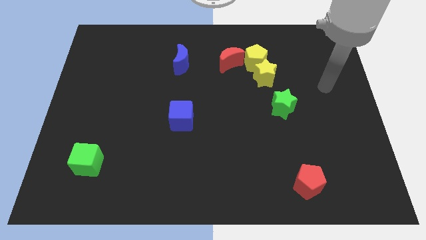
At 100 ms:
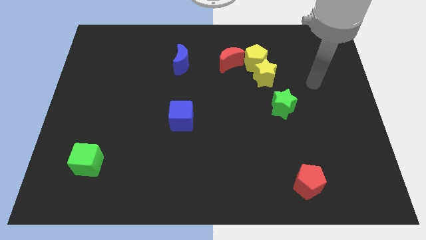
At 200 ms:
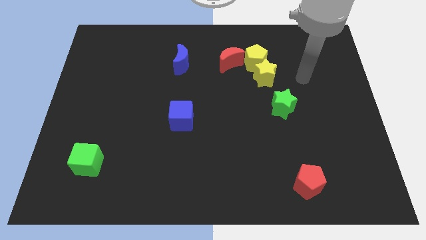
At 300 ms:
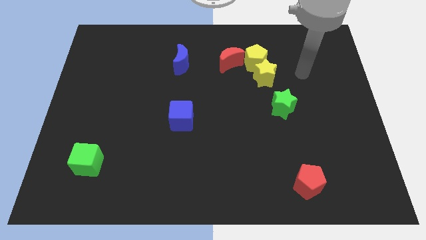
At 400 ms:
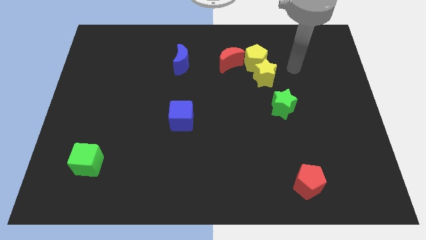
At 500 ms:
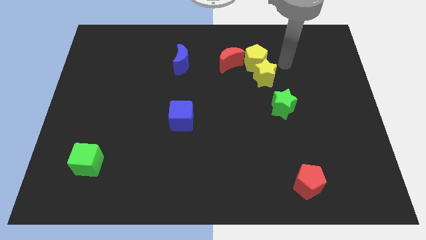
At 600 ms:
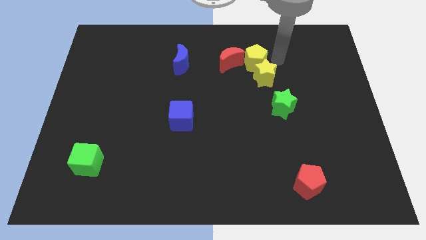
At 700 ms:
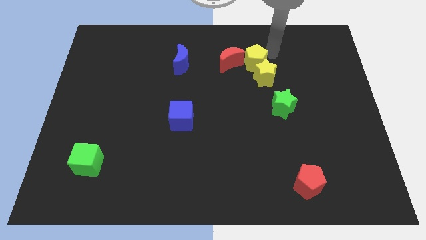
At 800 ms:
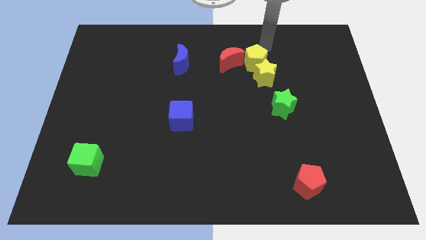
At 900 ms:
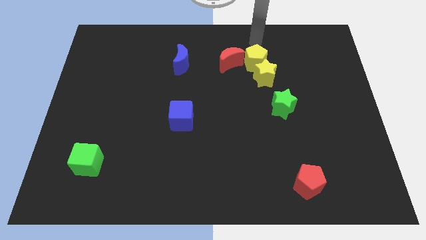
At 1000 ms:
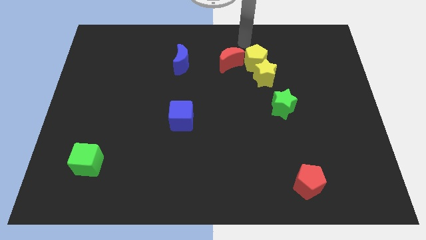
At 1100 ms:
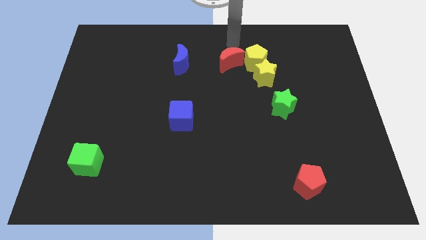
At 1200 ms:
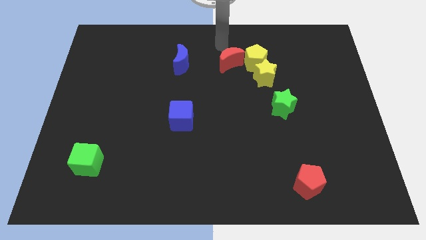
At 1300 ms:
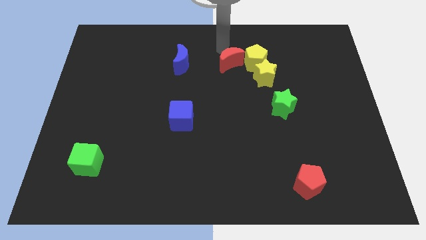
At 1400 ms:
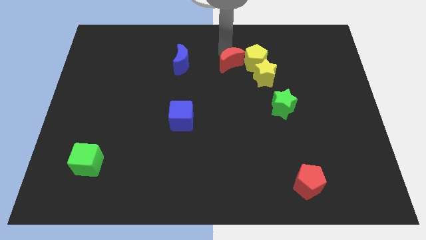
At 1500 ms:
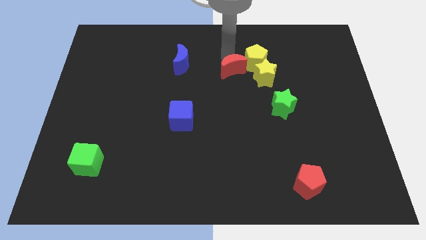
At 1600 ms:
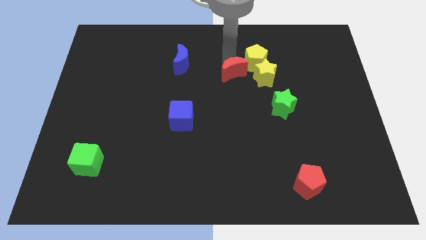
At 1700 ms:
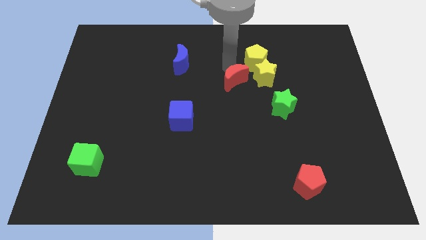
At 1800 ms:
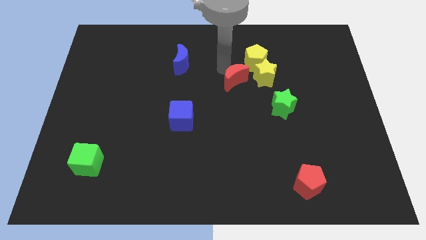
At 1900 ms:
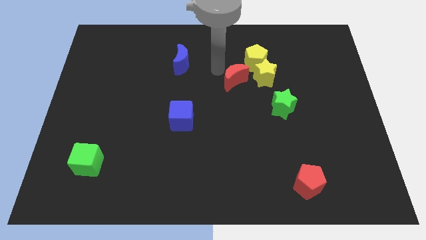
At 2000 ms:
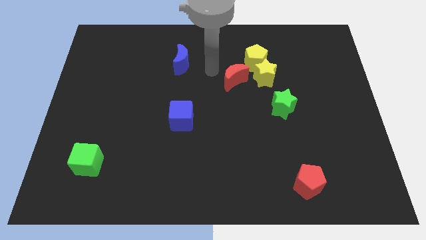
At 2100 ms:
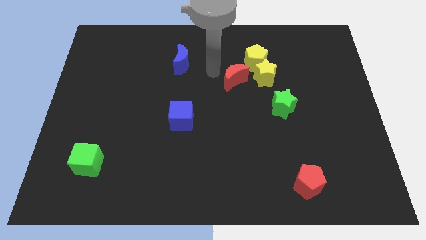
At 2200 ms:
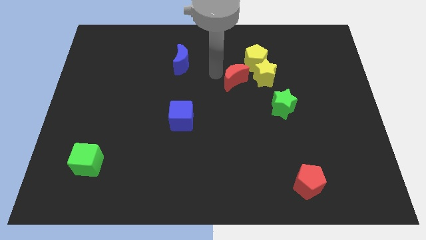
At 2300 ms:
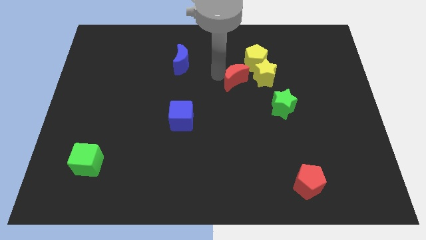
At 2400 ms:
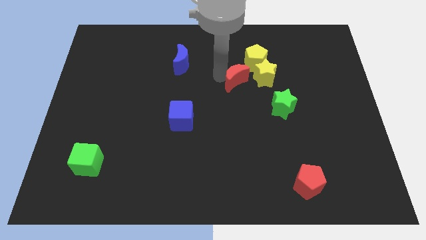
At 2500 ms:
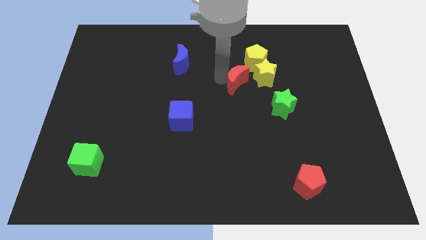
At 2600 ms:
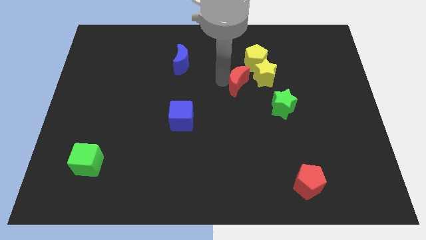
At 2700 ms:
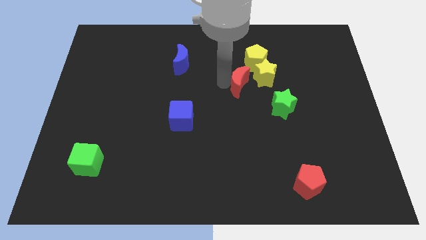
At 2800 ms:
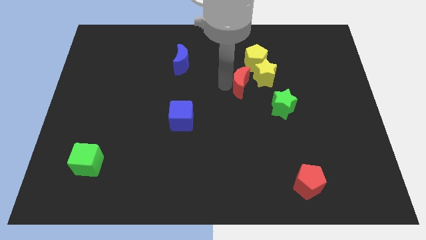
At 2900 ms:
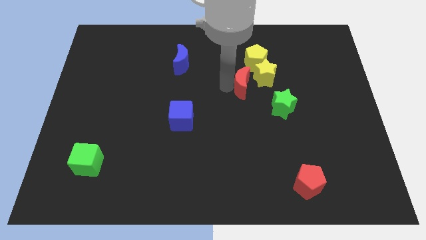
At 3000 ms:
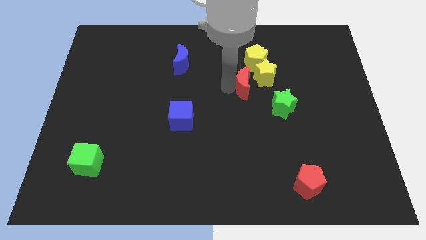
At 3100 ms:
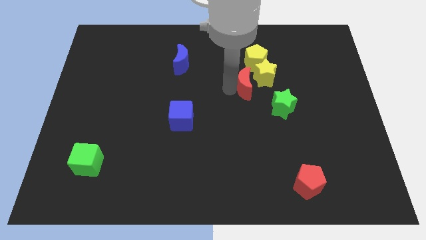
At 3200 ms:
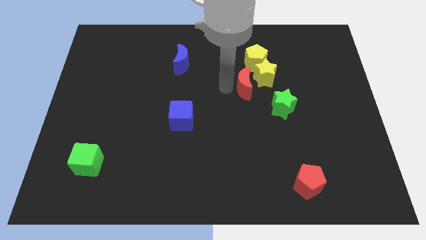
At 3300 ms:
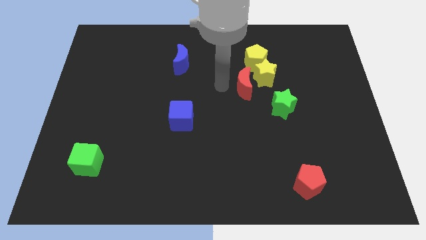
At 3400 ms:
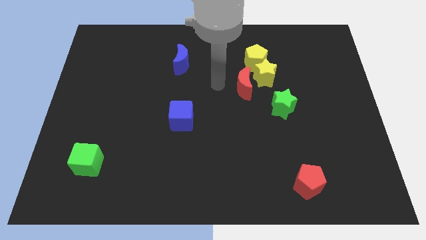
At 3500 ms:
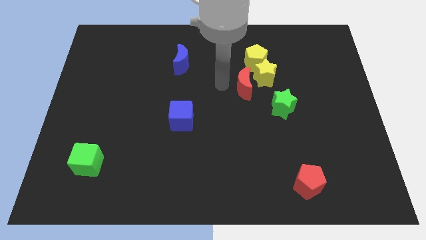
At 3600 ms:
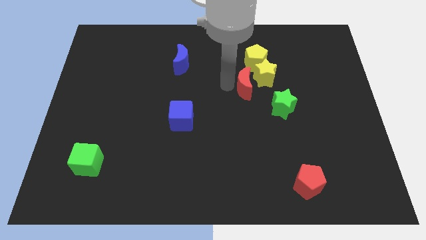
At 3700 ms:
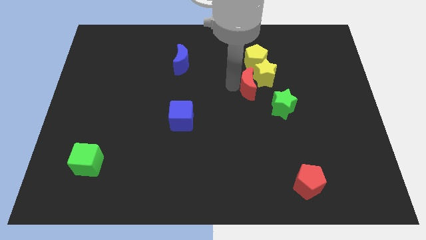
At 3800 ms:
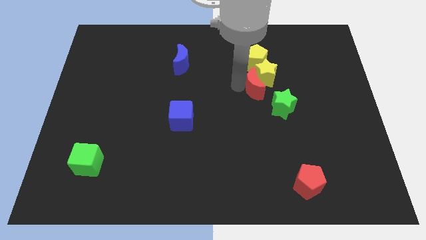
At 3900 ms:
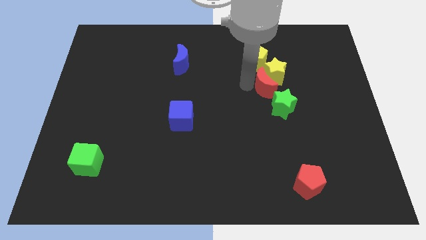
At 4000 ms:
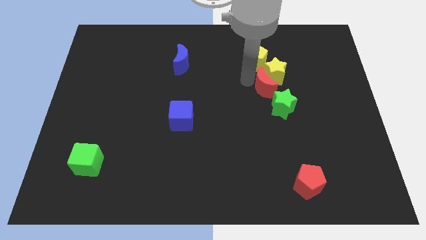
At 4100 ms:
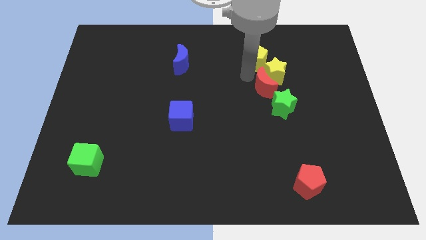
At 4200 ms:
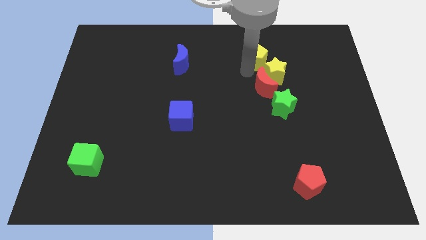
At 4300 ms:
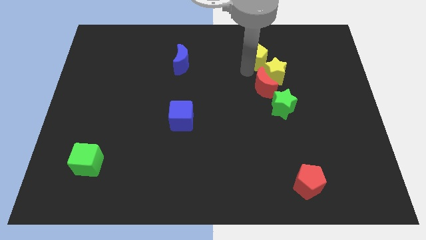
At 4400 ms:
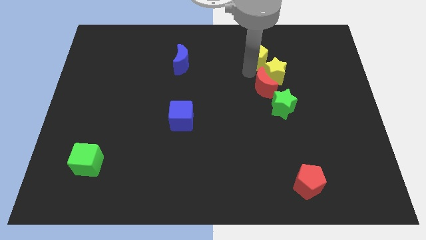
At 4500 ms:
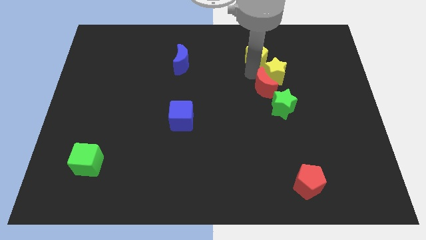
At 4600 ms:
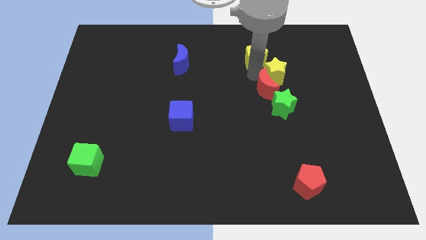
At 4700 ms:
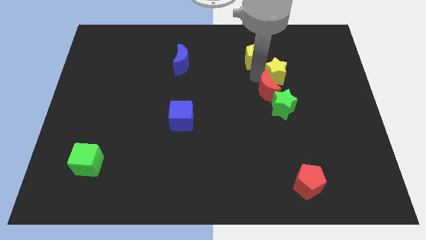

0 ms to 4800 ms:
slide the red moon to the green star

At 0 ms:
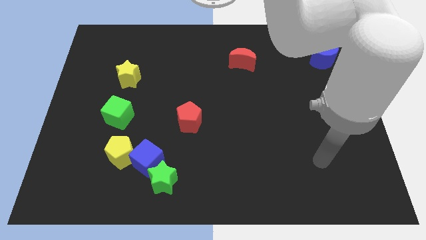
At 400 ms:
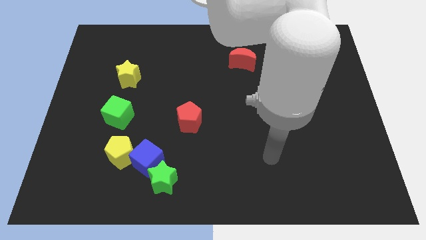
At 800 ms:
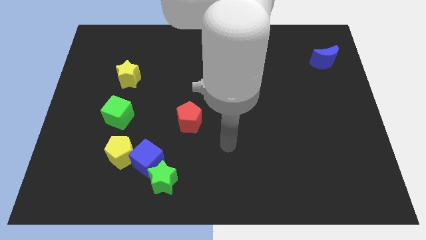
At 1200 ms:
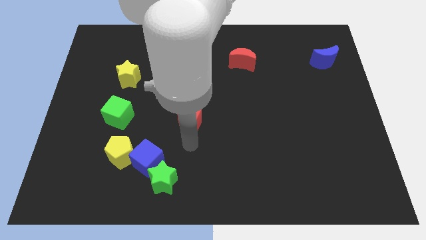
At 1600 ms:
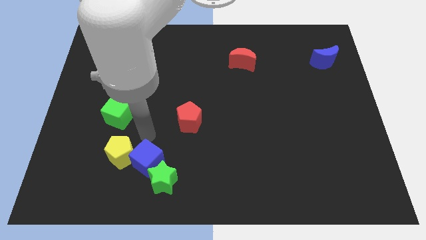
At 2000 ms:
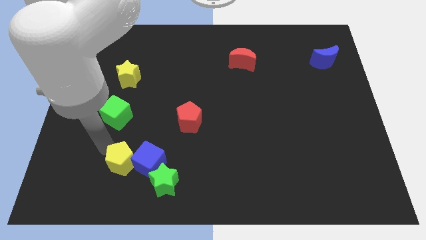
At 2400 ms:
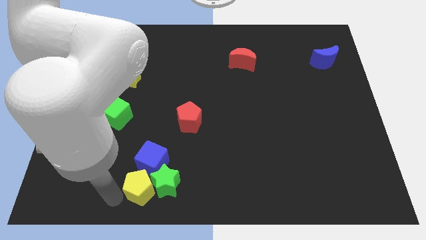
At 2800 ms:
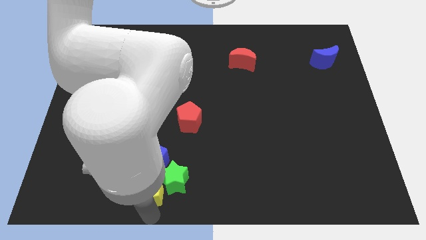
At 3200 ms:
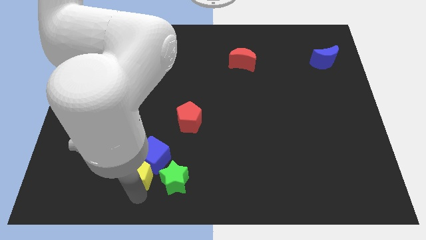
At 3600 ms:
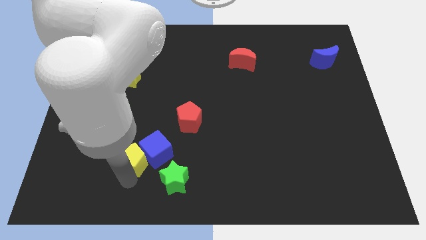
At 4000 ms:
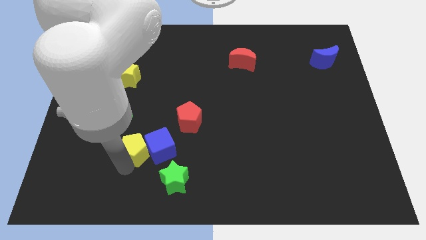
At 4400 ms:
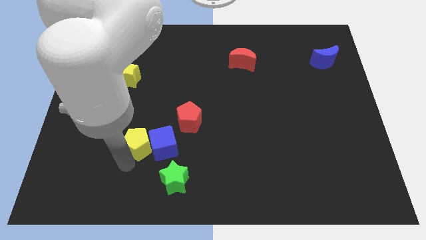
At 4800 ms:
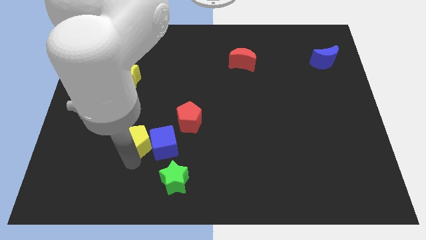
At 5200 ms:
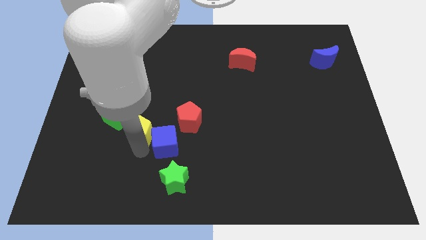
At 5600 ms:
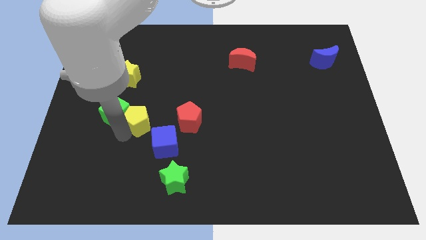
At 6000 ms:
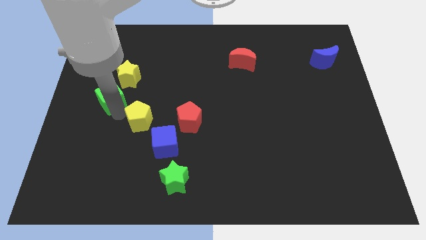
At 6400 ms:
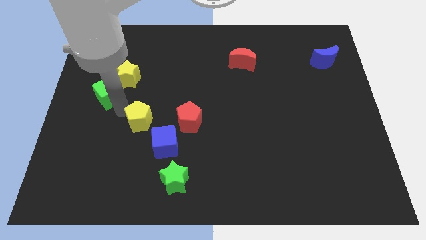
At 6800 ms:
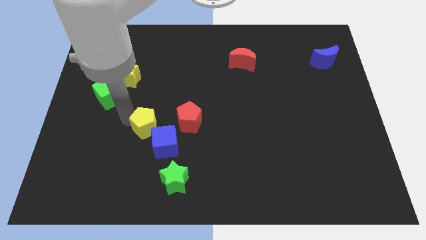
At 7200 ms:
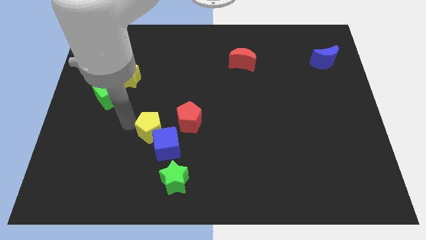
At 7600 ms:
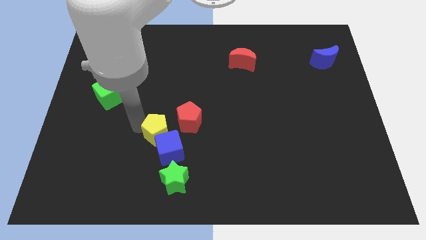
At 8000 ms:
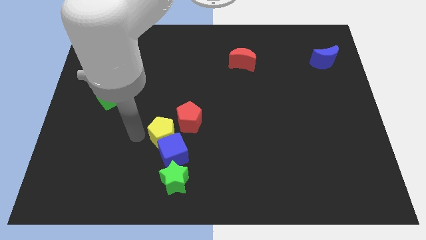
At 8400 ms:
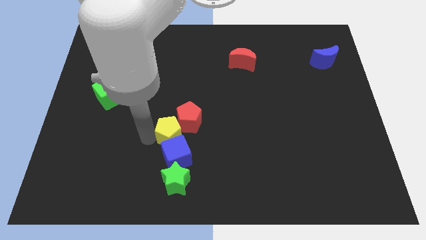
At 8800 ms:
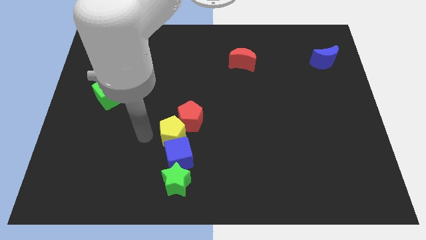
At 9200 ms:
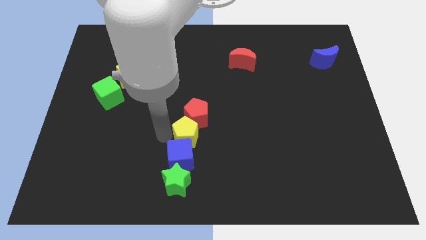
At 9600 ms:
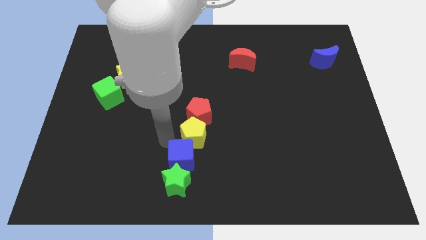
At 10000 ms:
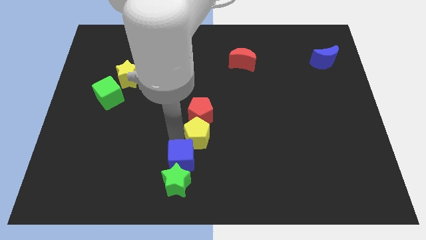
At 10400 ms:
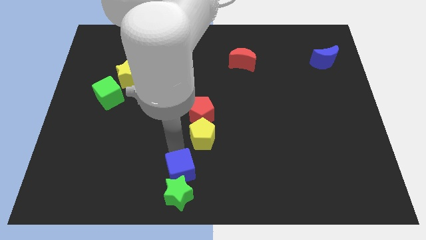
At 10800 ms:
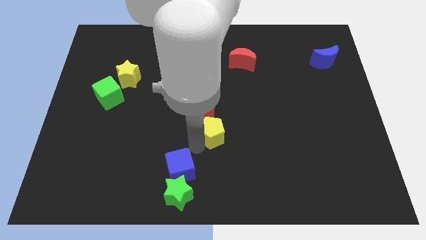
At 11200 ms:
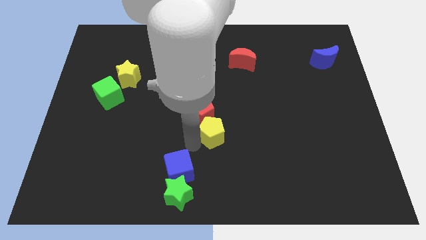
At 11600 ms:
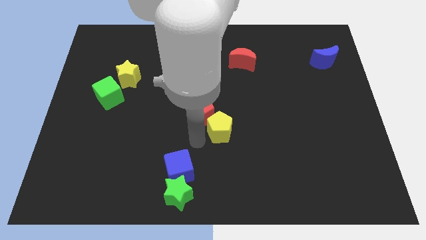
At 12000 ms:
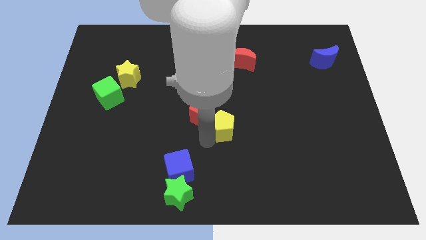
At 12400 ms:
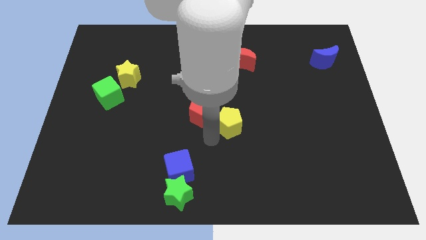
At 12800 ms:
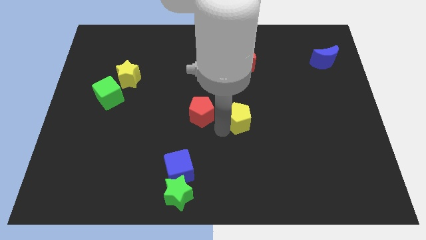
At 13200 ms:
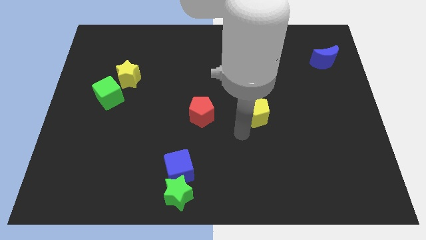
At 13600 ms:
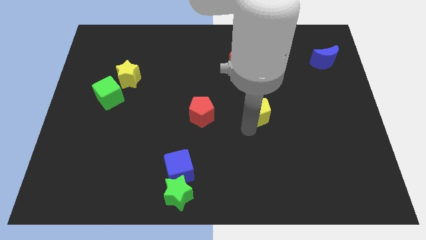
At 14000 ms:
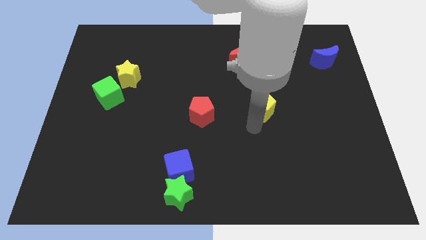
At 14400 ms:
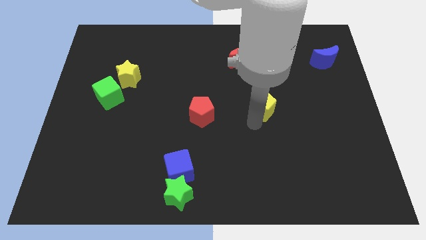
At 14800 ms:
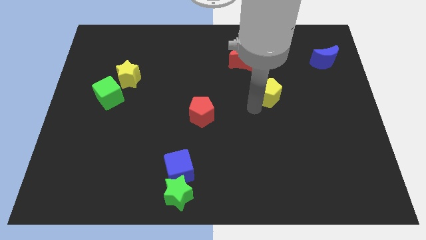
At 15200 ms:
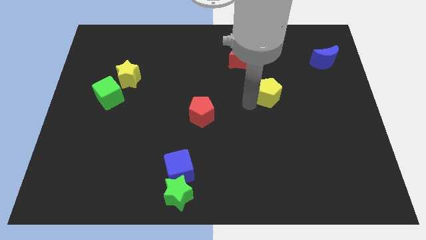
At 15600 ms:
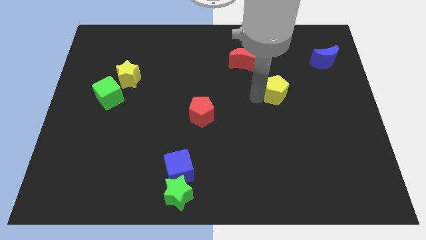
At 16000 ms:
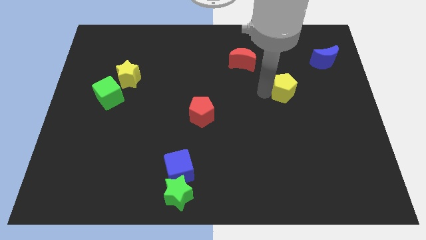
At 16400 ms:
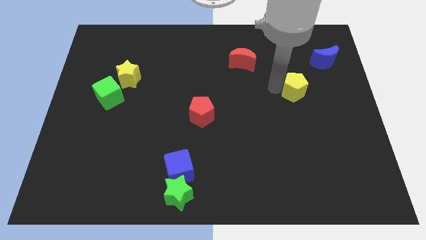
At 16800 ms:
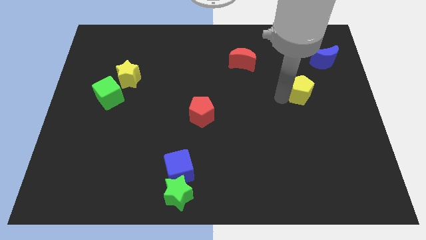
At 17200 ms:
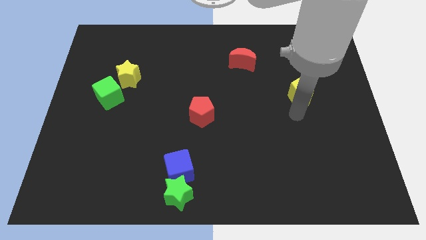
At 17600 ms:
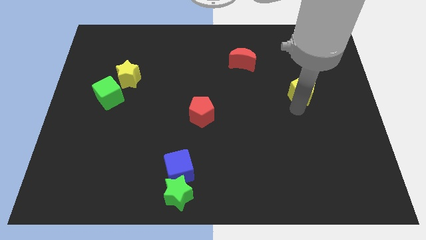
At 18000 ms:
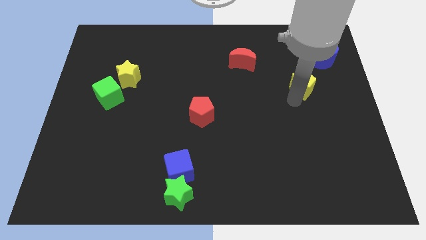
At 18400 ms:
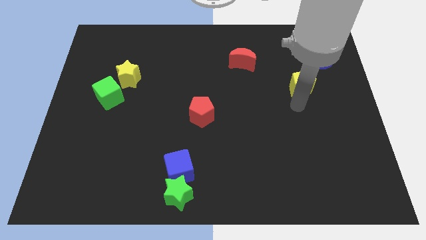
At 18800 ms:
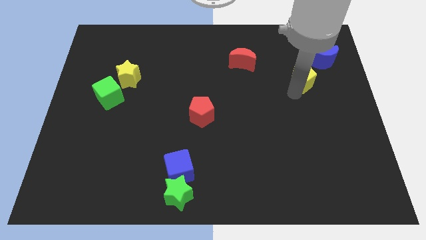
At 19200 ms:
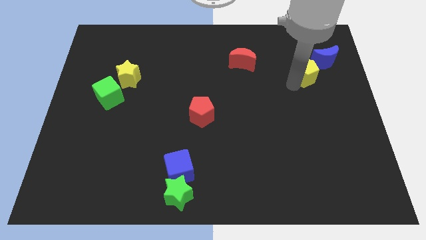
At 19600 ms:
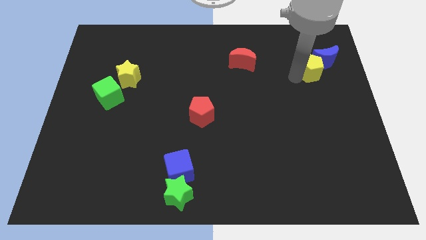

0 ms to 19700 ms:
move the yellow pentagon next to the blue moon
